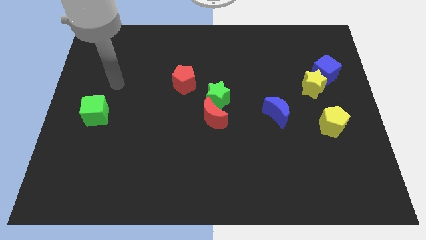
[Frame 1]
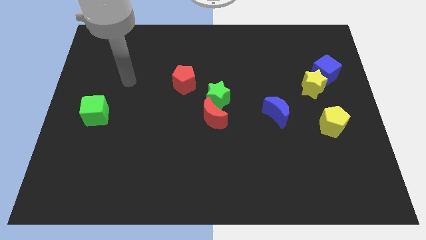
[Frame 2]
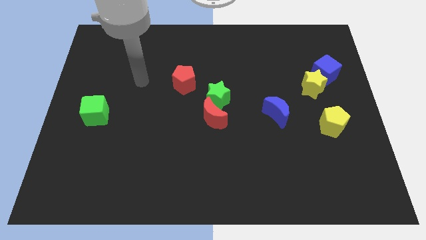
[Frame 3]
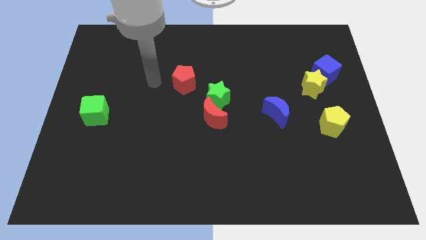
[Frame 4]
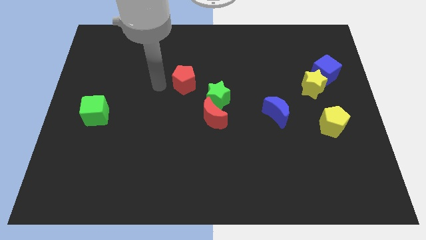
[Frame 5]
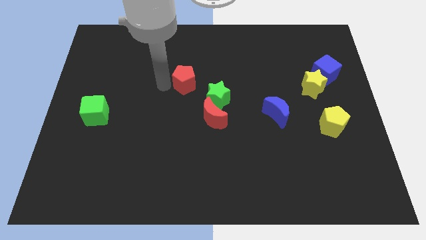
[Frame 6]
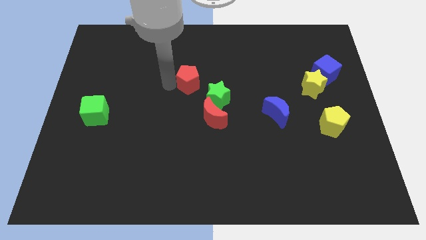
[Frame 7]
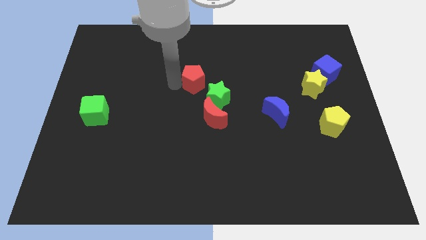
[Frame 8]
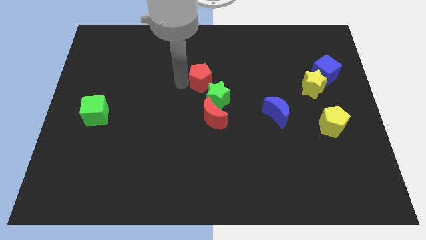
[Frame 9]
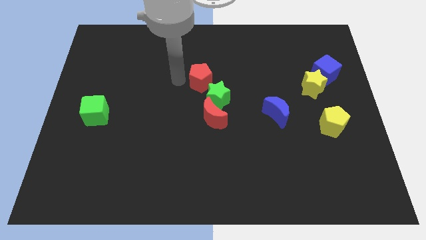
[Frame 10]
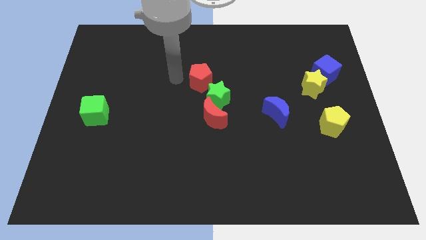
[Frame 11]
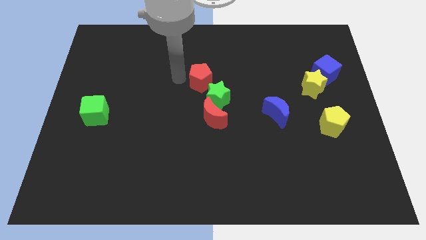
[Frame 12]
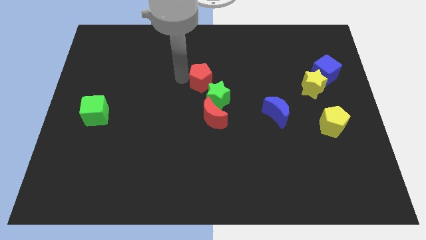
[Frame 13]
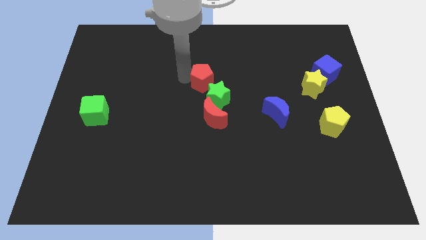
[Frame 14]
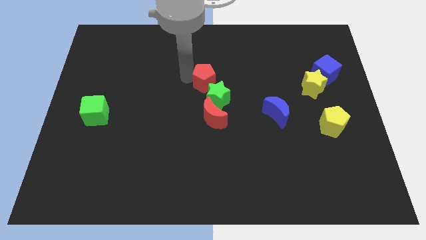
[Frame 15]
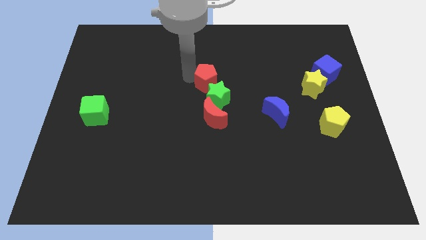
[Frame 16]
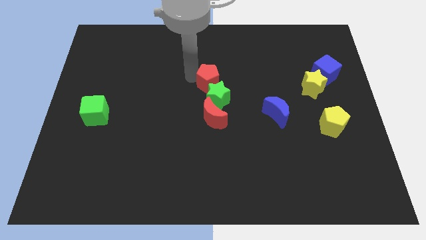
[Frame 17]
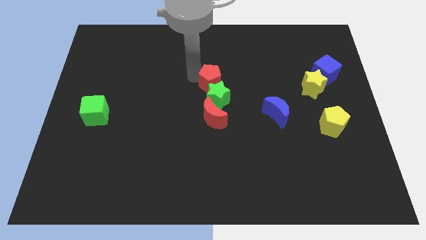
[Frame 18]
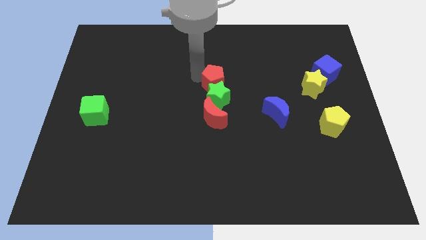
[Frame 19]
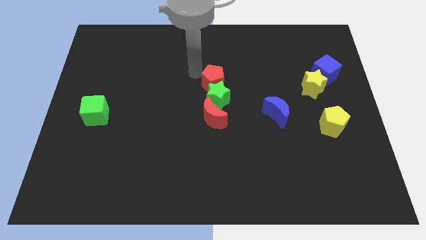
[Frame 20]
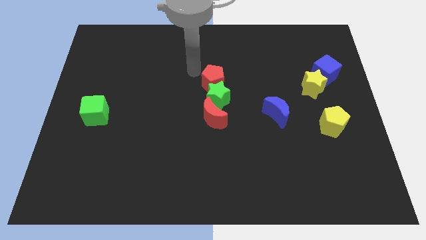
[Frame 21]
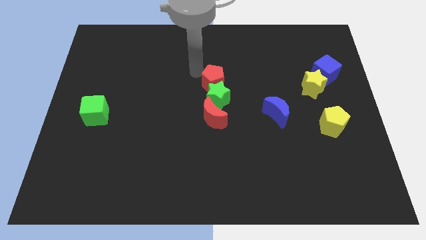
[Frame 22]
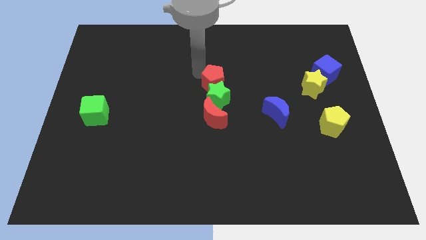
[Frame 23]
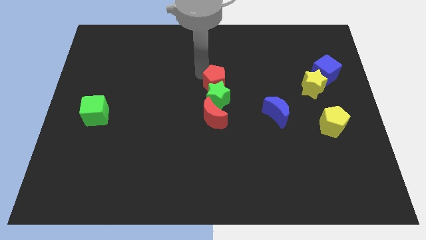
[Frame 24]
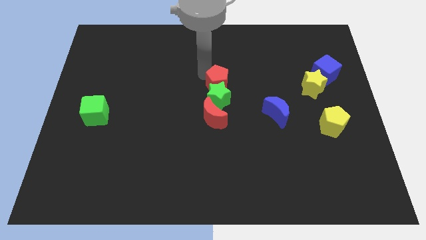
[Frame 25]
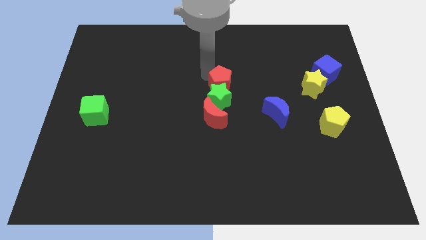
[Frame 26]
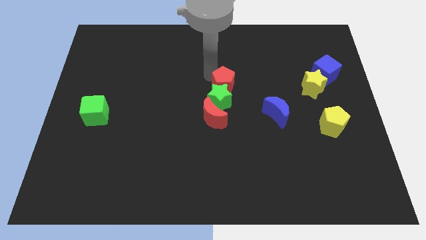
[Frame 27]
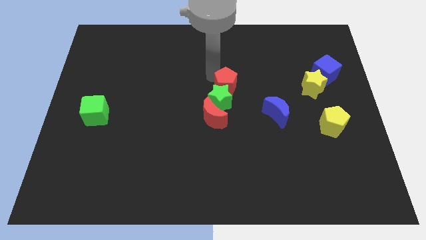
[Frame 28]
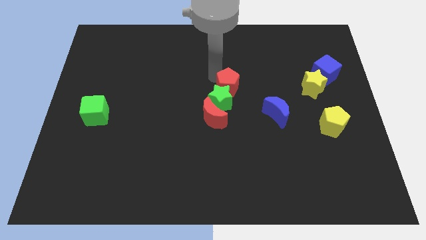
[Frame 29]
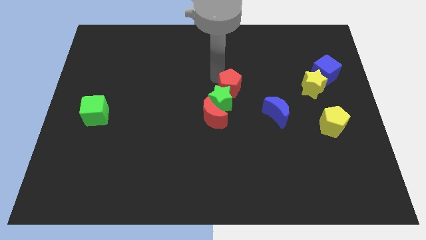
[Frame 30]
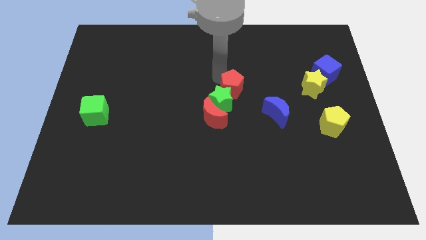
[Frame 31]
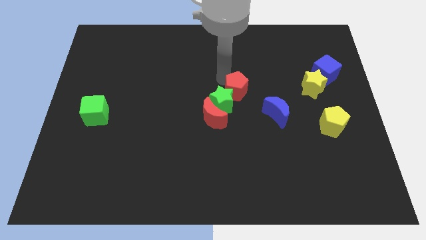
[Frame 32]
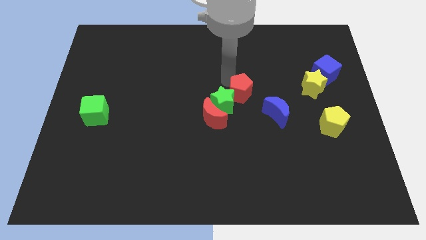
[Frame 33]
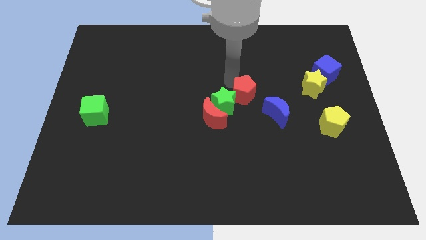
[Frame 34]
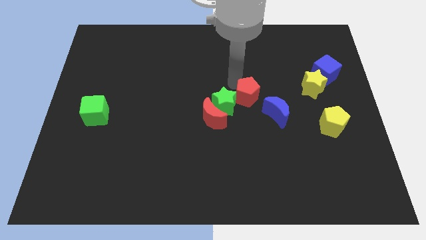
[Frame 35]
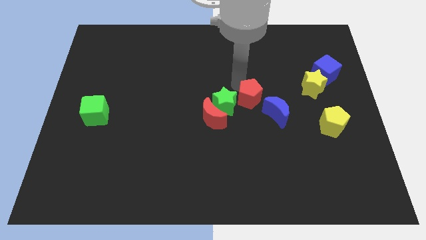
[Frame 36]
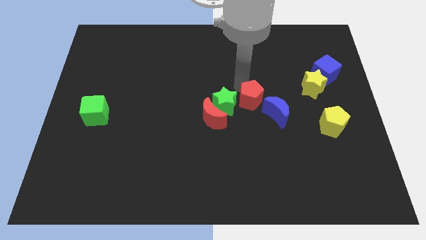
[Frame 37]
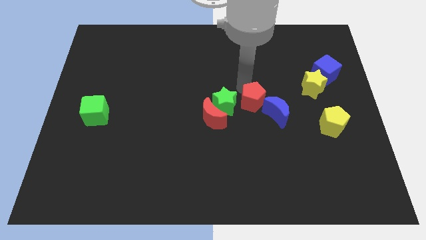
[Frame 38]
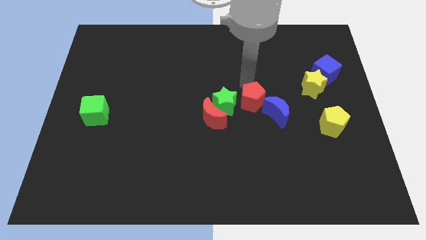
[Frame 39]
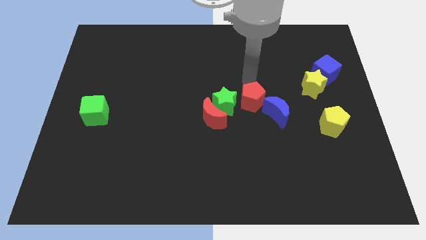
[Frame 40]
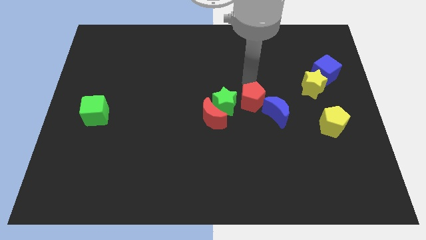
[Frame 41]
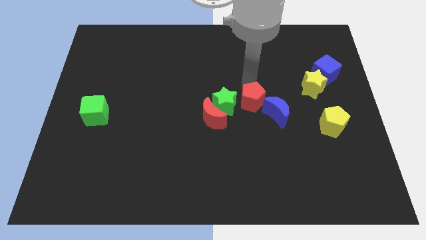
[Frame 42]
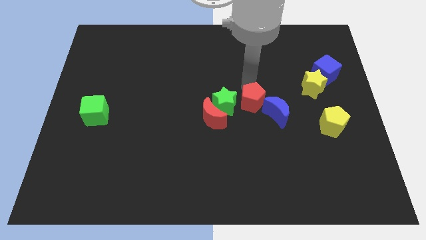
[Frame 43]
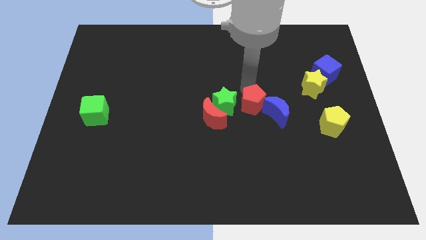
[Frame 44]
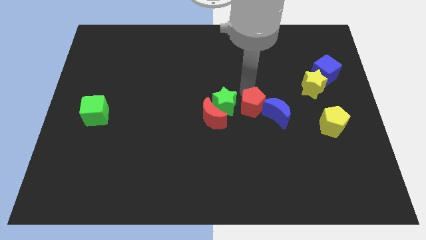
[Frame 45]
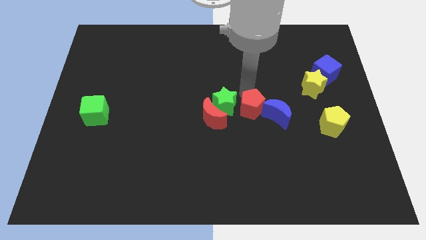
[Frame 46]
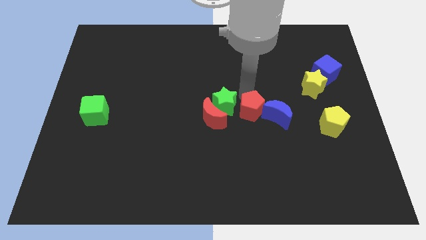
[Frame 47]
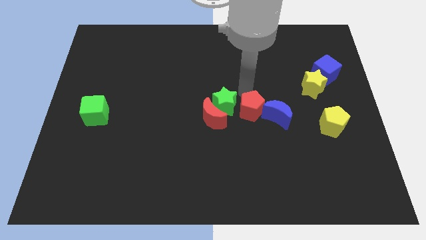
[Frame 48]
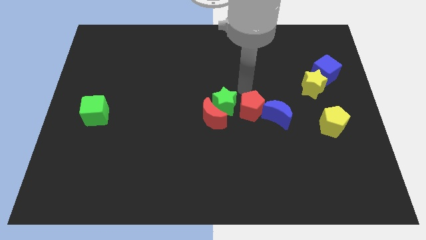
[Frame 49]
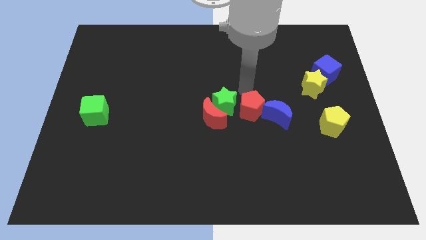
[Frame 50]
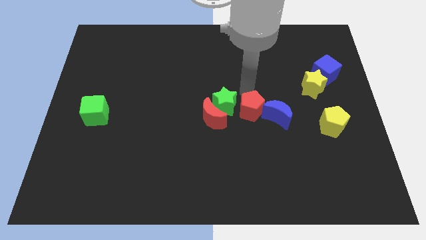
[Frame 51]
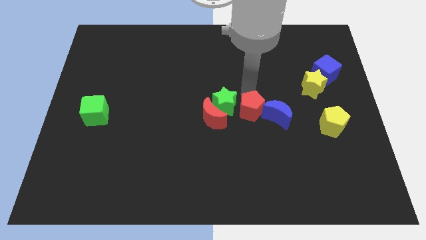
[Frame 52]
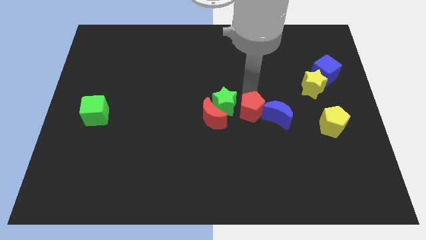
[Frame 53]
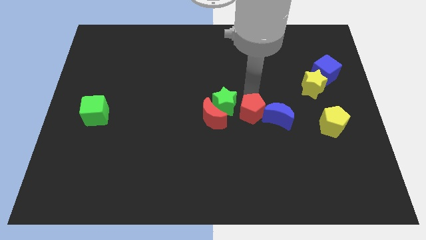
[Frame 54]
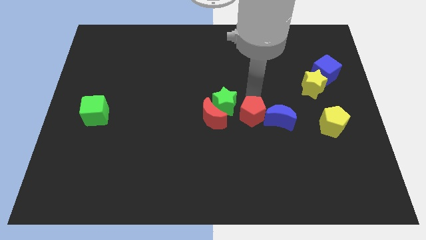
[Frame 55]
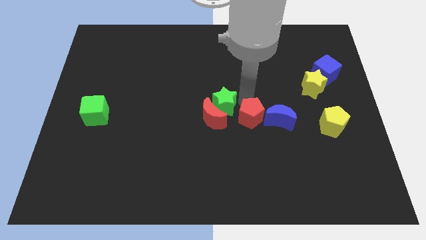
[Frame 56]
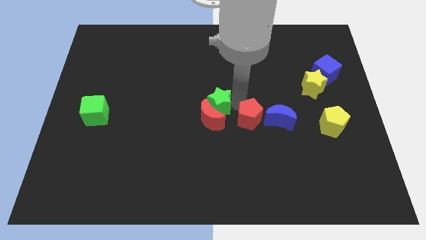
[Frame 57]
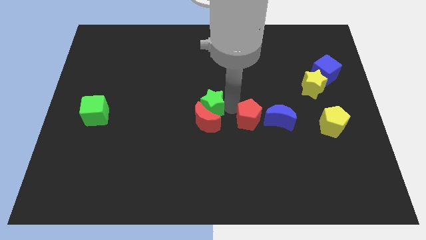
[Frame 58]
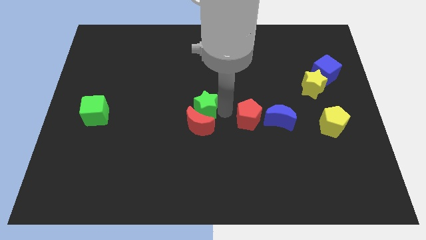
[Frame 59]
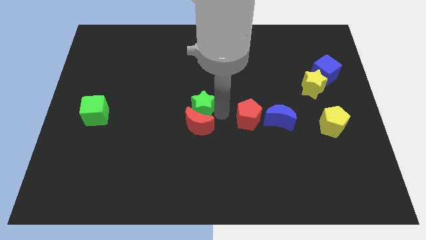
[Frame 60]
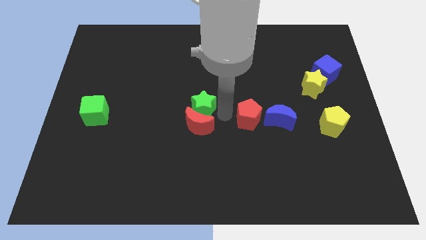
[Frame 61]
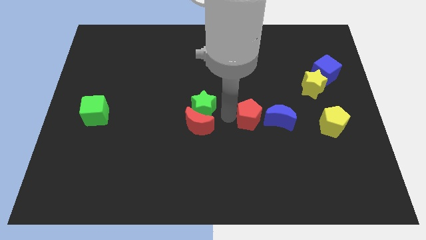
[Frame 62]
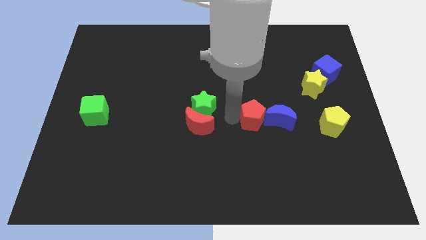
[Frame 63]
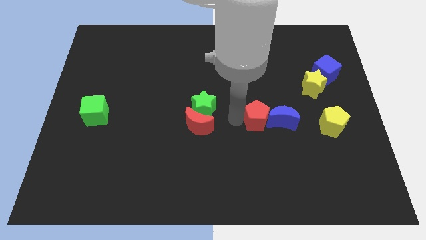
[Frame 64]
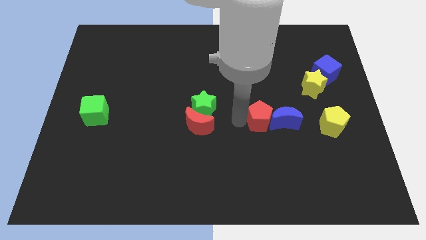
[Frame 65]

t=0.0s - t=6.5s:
slide the red pentagon to the left of the yellow pentagon

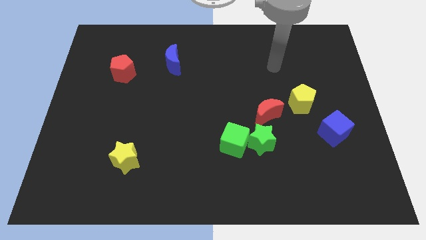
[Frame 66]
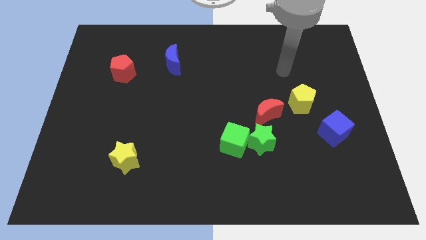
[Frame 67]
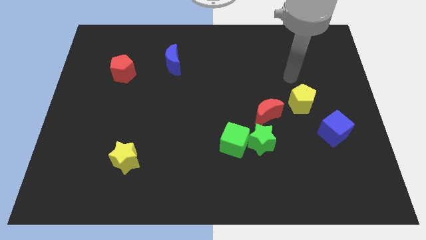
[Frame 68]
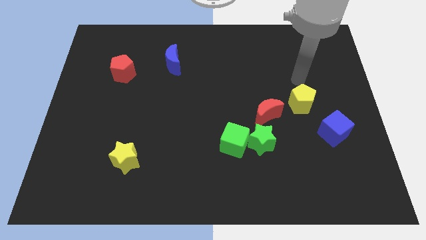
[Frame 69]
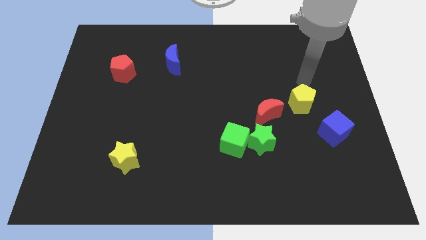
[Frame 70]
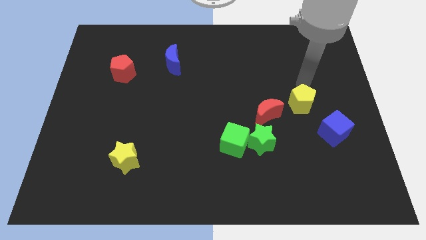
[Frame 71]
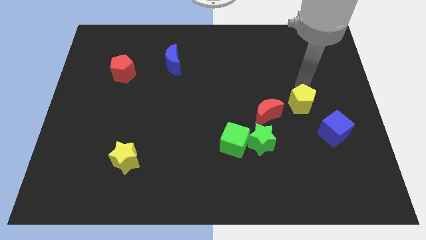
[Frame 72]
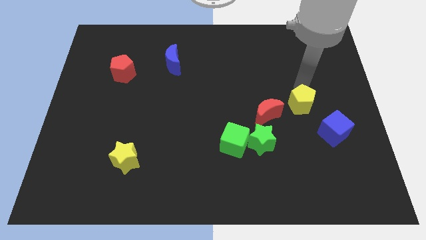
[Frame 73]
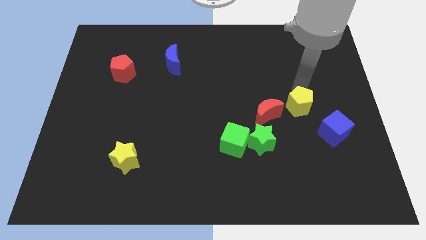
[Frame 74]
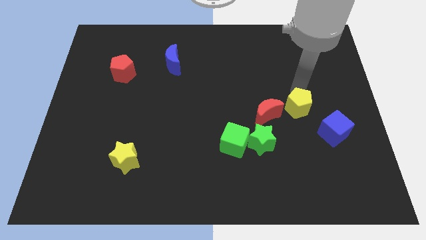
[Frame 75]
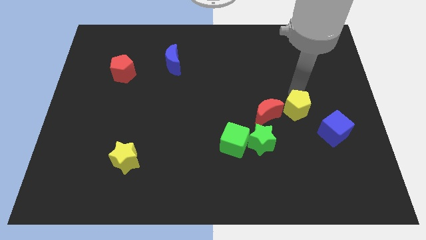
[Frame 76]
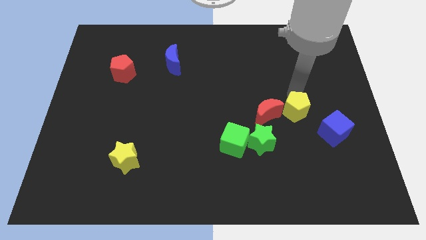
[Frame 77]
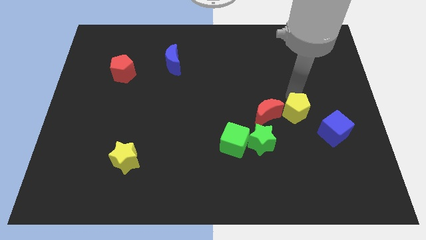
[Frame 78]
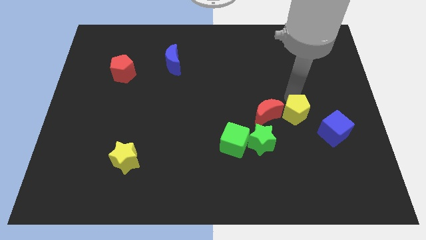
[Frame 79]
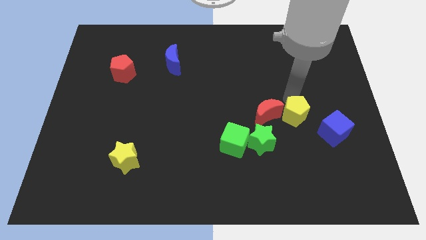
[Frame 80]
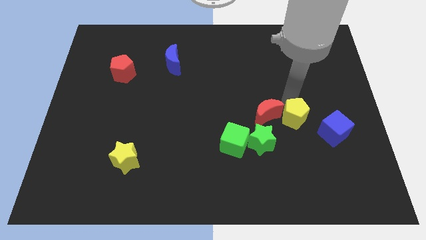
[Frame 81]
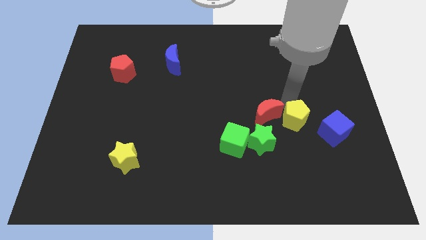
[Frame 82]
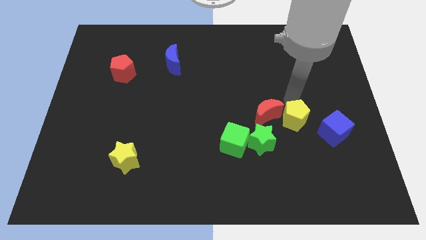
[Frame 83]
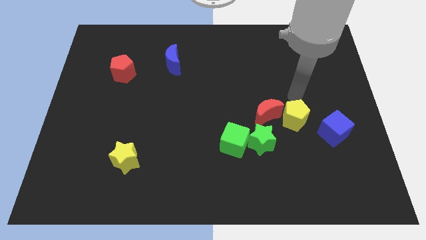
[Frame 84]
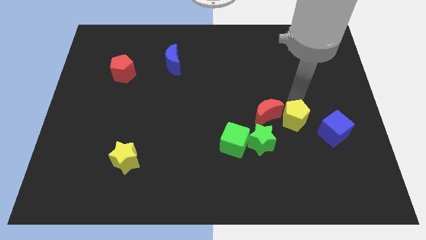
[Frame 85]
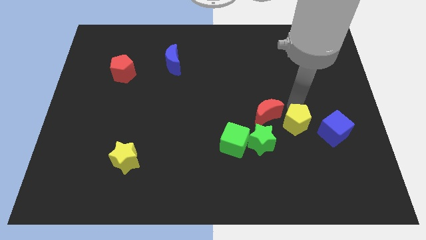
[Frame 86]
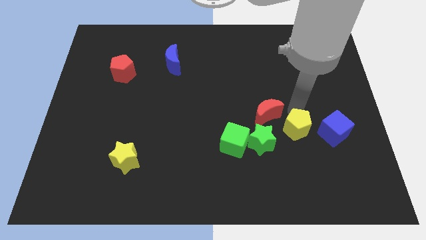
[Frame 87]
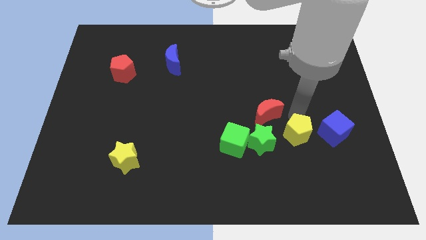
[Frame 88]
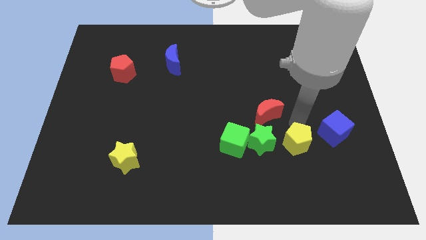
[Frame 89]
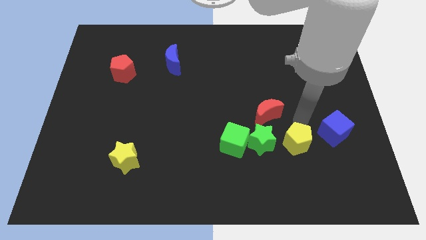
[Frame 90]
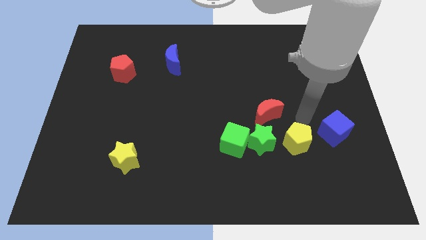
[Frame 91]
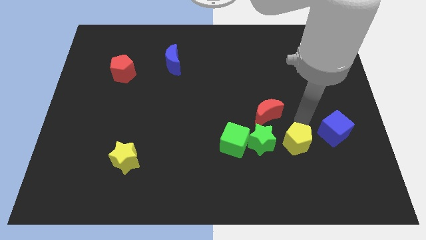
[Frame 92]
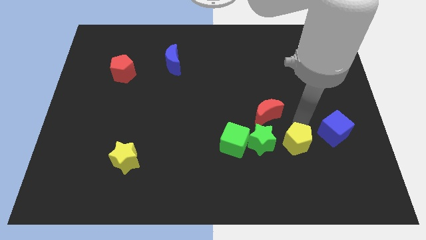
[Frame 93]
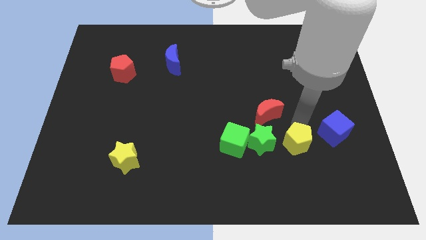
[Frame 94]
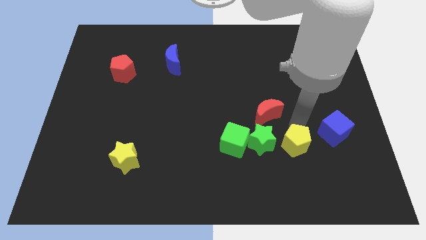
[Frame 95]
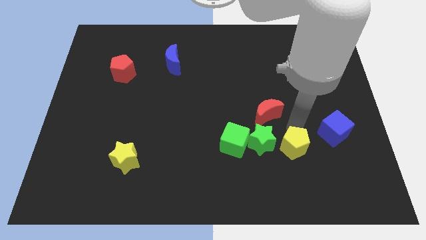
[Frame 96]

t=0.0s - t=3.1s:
push the yellow pentagon to the bottom right side of the green star
